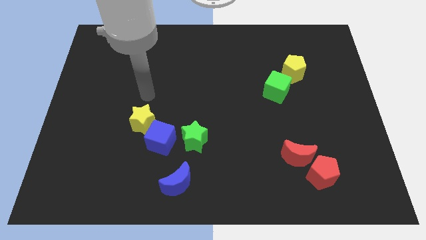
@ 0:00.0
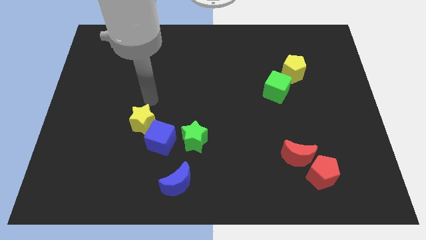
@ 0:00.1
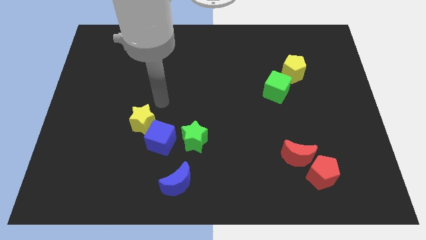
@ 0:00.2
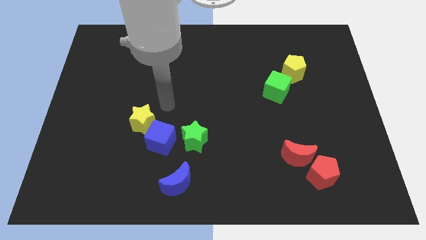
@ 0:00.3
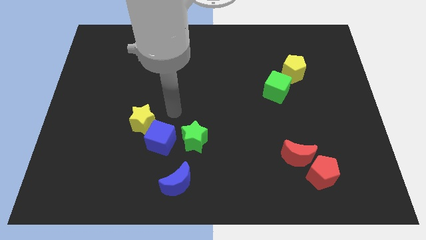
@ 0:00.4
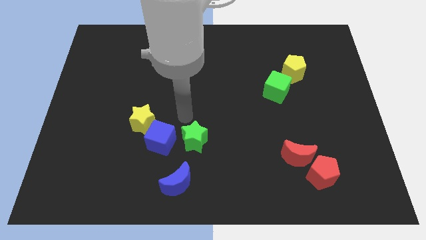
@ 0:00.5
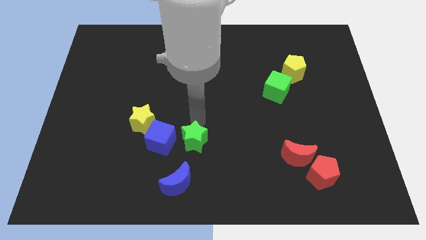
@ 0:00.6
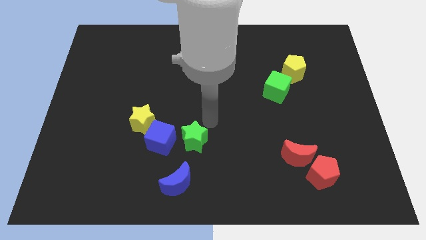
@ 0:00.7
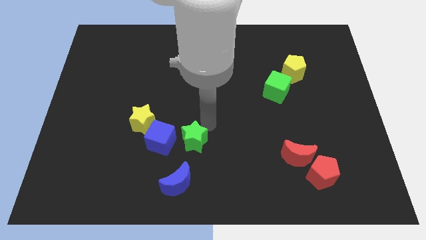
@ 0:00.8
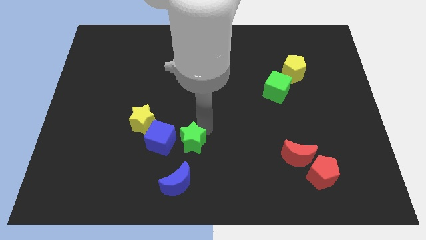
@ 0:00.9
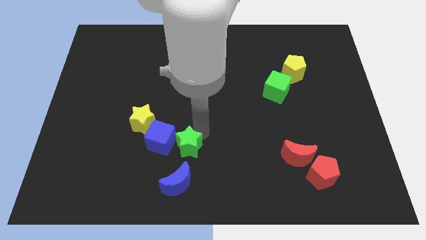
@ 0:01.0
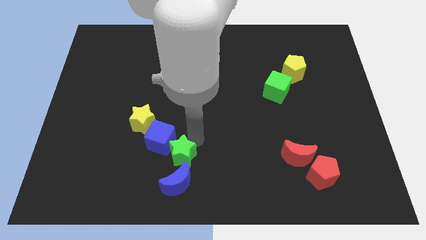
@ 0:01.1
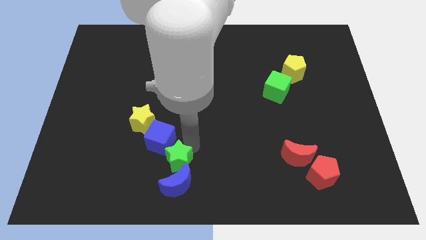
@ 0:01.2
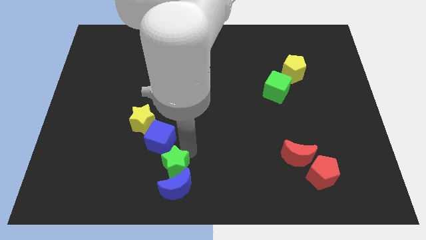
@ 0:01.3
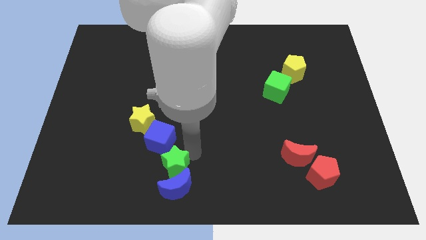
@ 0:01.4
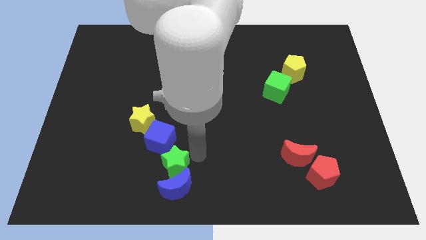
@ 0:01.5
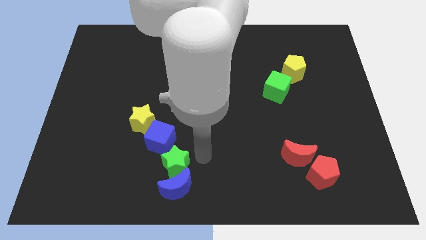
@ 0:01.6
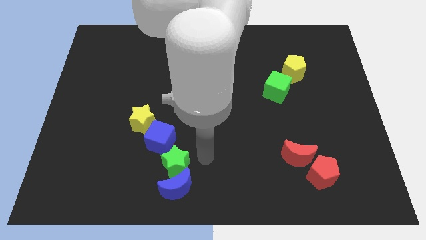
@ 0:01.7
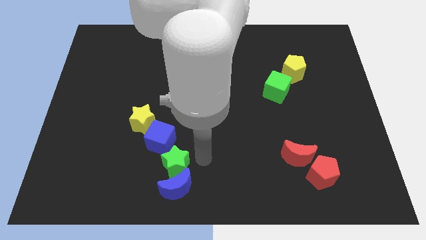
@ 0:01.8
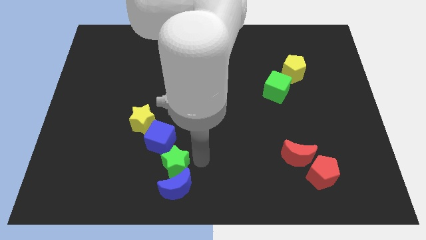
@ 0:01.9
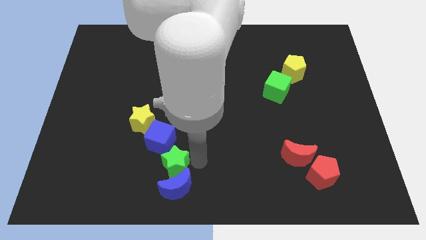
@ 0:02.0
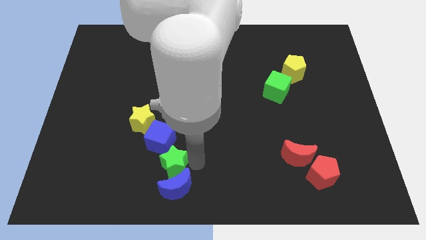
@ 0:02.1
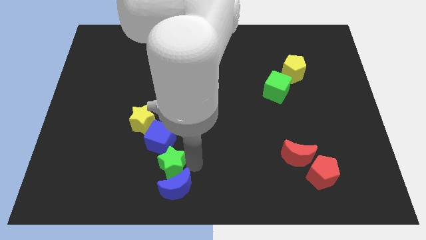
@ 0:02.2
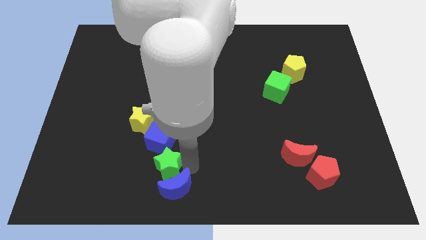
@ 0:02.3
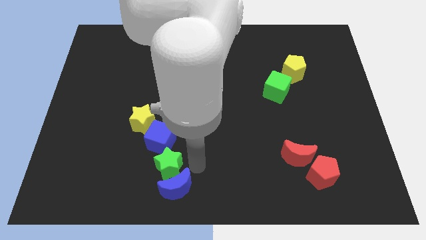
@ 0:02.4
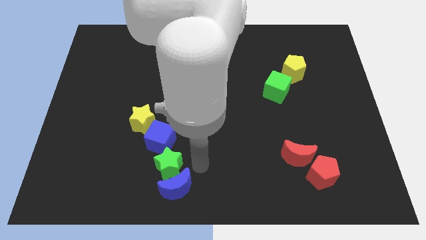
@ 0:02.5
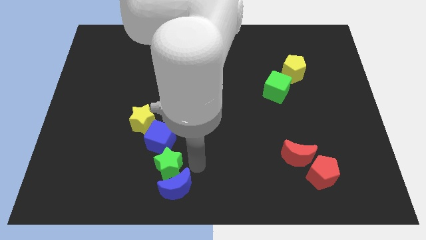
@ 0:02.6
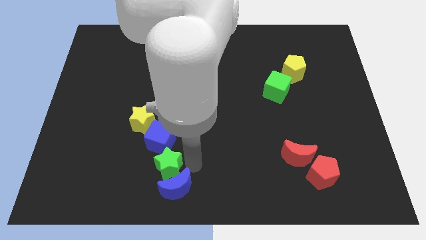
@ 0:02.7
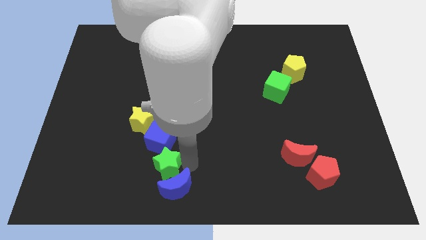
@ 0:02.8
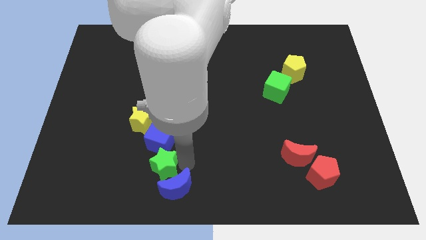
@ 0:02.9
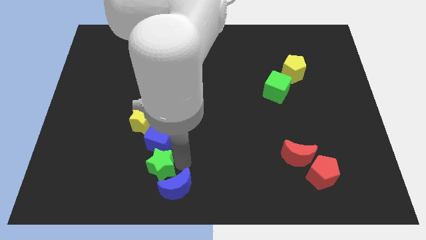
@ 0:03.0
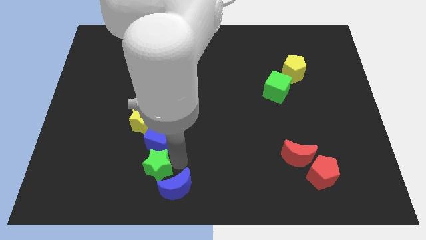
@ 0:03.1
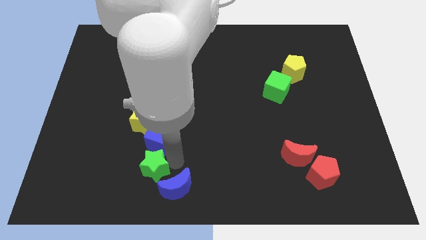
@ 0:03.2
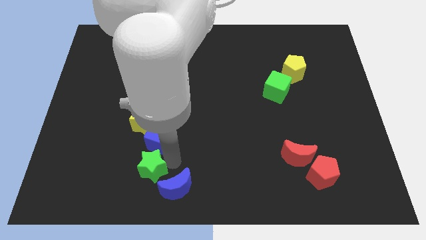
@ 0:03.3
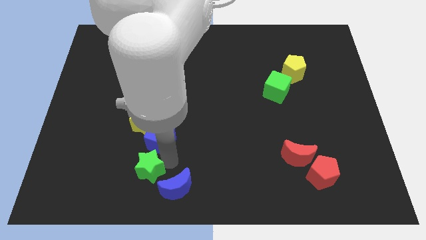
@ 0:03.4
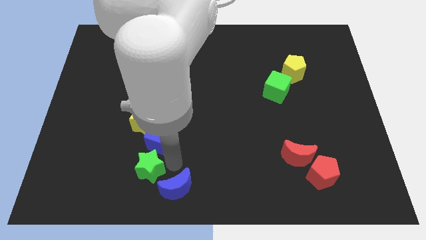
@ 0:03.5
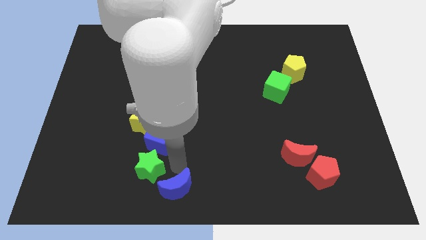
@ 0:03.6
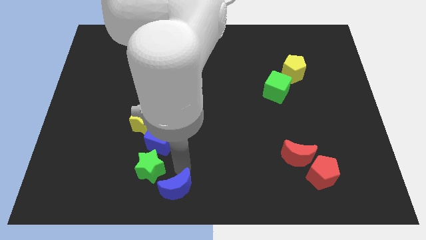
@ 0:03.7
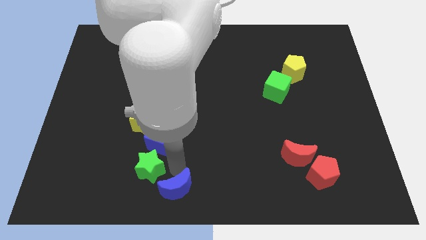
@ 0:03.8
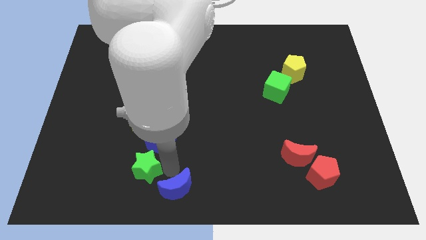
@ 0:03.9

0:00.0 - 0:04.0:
move the green star to the left slightly

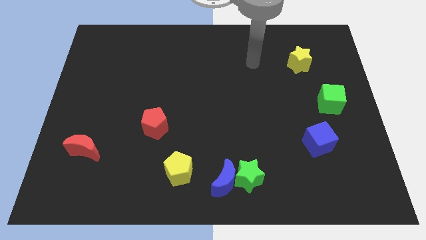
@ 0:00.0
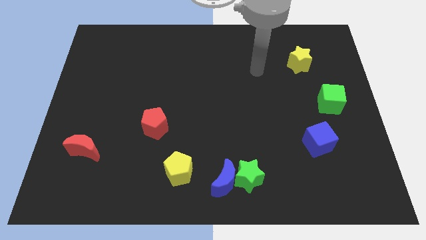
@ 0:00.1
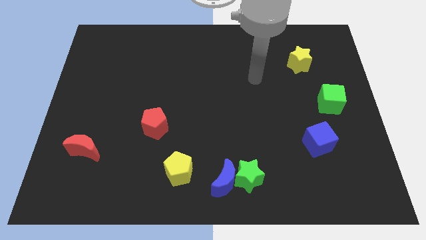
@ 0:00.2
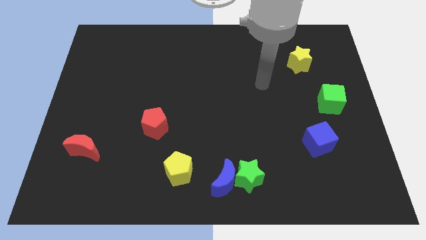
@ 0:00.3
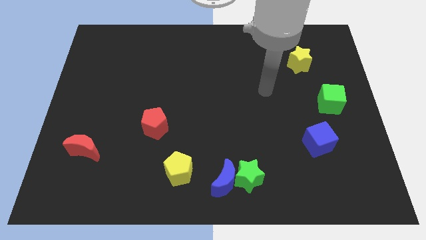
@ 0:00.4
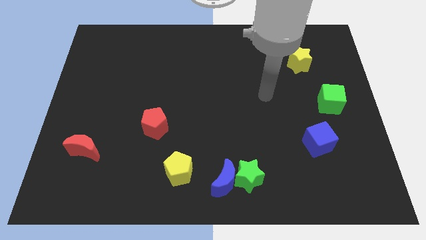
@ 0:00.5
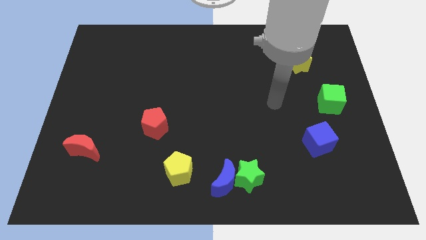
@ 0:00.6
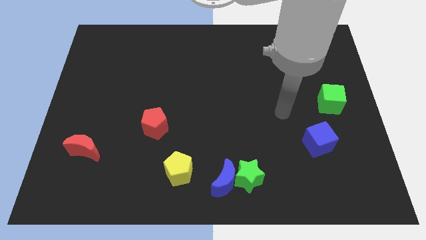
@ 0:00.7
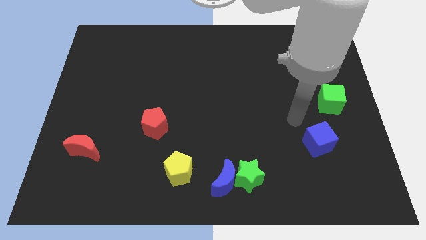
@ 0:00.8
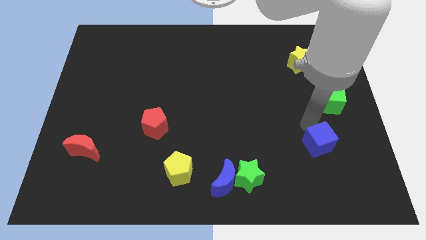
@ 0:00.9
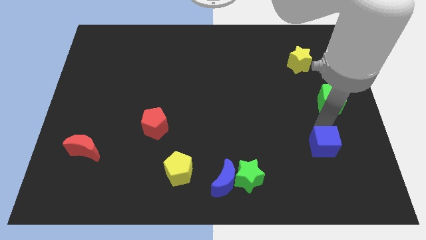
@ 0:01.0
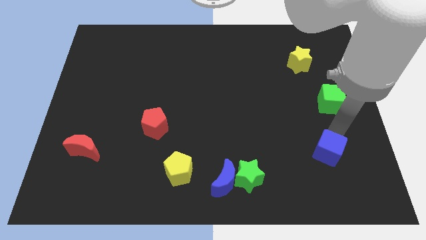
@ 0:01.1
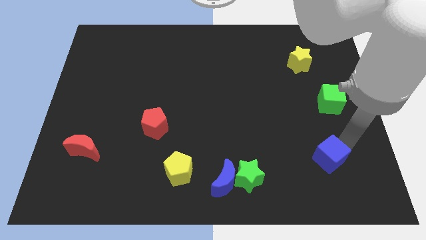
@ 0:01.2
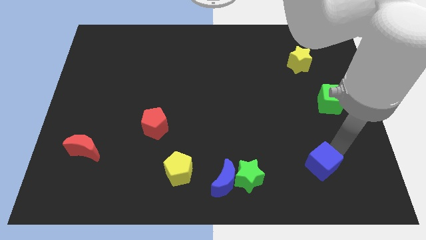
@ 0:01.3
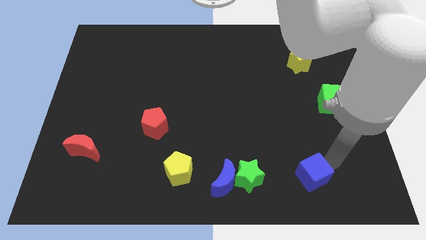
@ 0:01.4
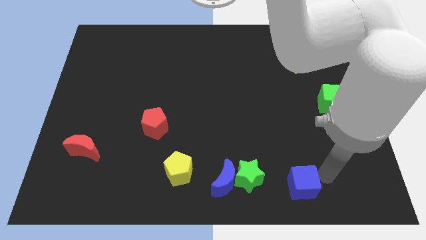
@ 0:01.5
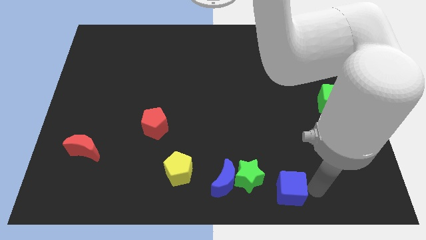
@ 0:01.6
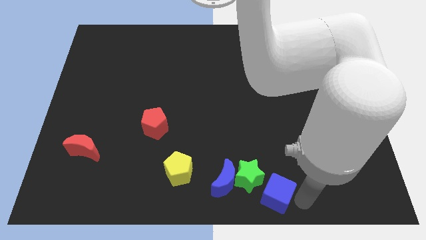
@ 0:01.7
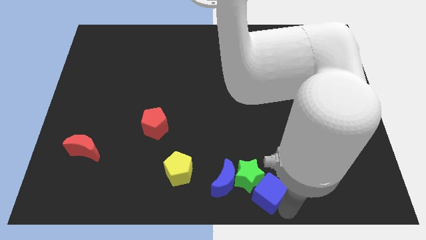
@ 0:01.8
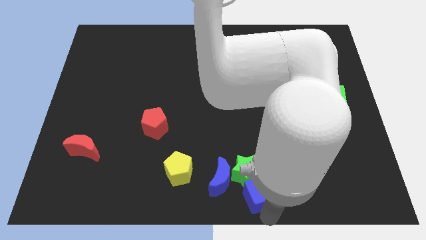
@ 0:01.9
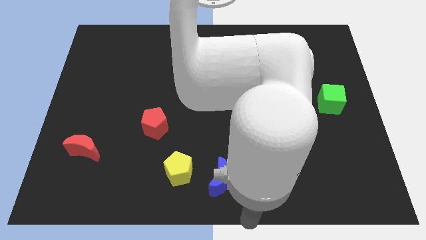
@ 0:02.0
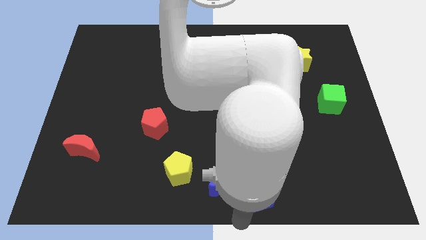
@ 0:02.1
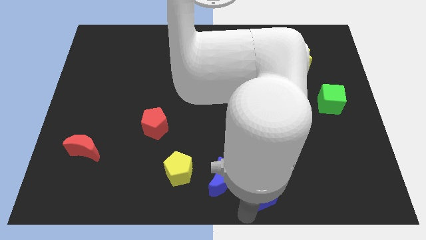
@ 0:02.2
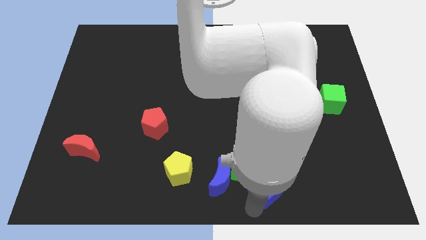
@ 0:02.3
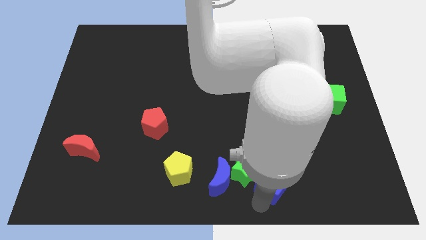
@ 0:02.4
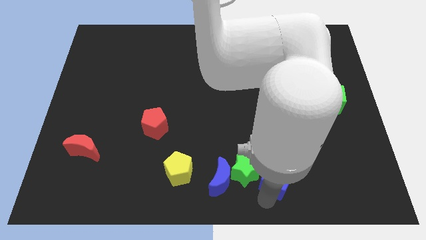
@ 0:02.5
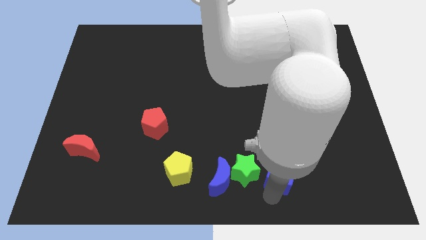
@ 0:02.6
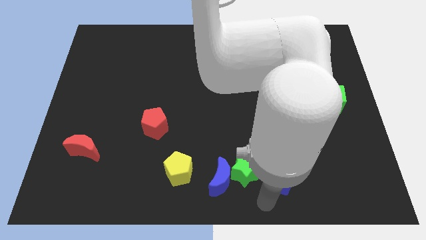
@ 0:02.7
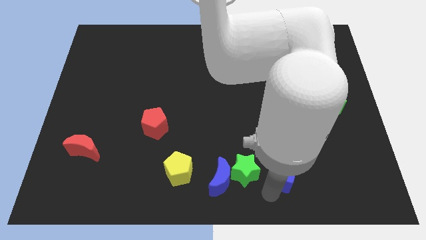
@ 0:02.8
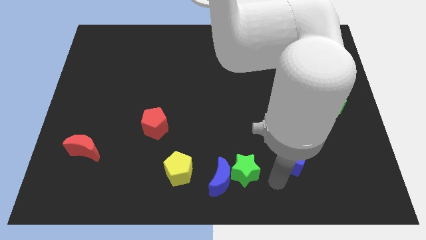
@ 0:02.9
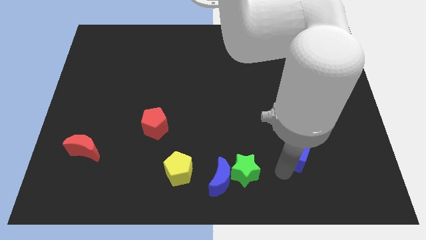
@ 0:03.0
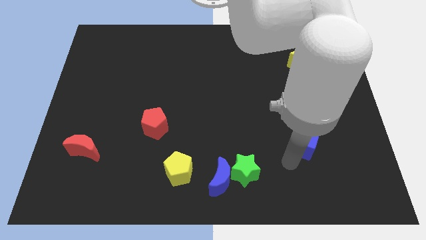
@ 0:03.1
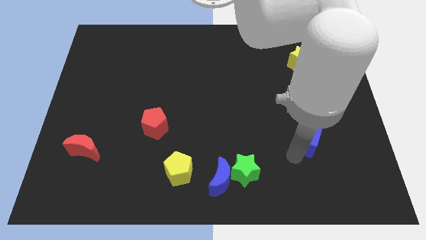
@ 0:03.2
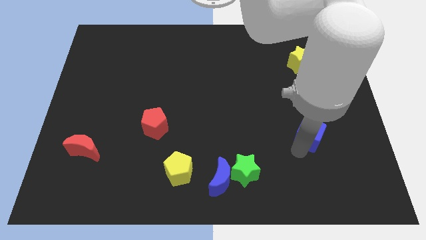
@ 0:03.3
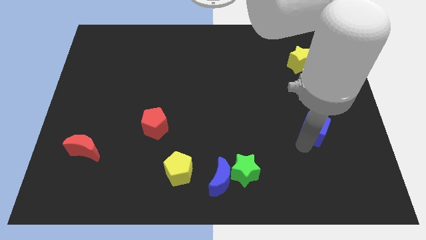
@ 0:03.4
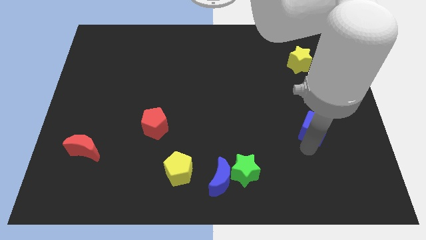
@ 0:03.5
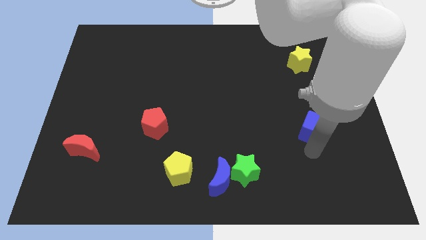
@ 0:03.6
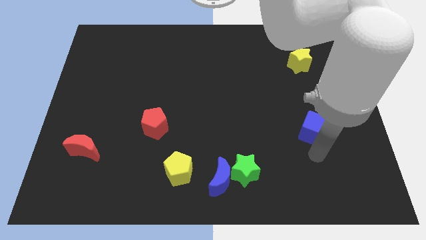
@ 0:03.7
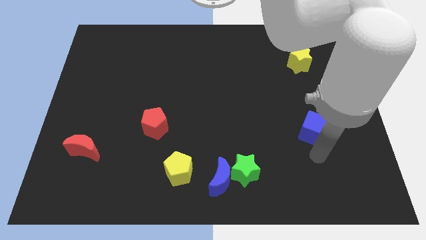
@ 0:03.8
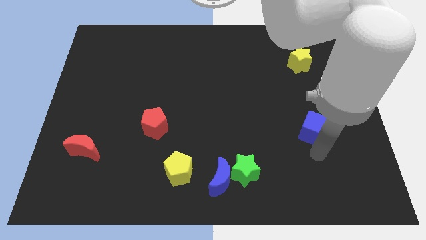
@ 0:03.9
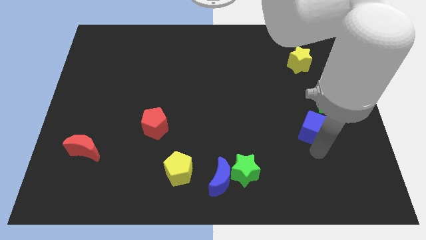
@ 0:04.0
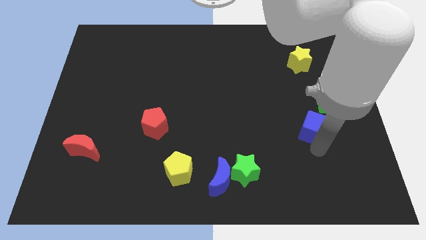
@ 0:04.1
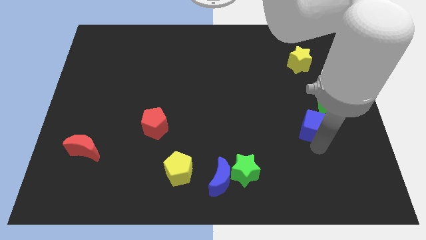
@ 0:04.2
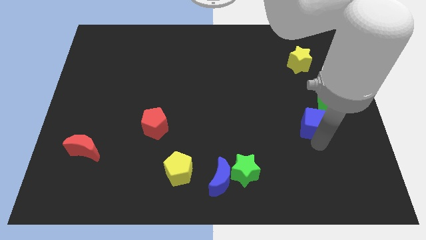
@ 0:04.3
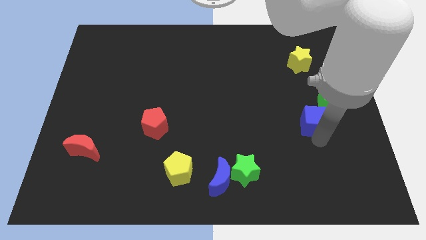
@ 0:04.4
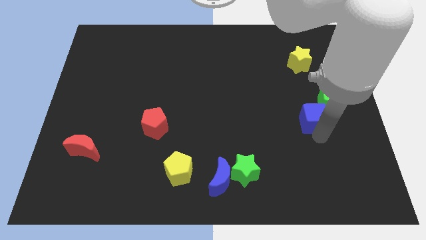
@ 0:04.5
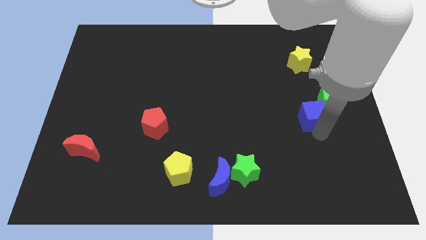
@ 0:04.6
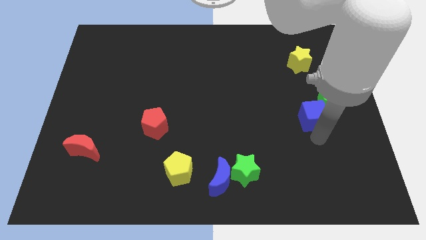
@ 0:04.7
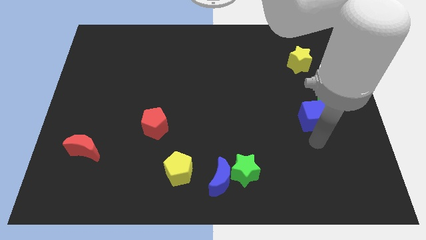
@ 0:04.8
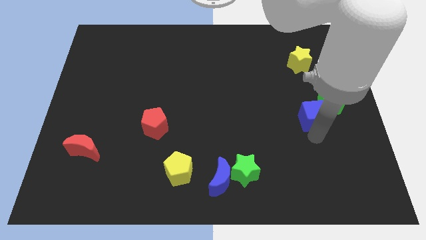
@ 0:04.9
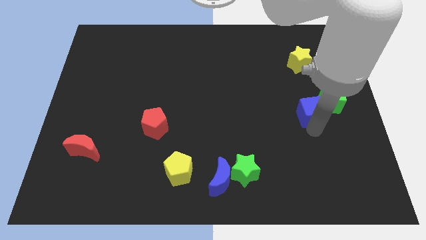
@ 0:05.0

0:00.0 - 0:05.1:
slide the blue cube somewhat up
